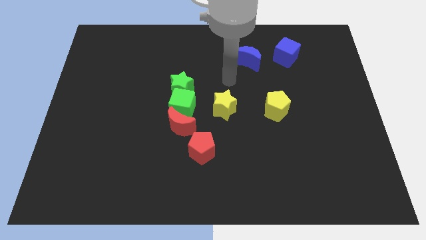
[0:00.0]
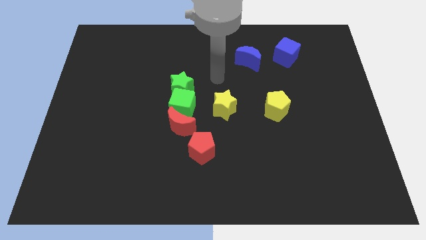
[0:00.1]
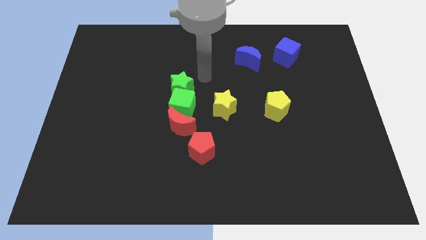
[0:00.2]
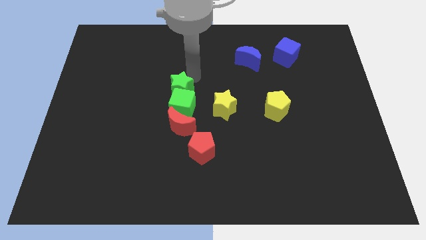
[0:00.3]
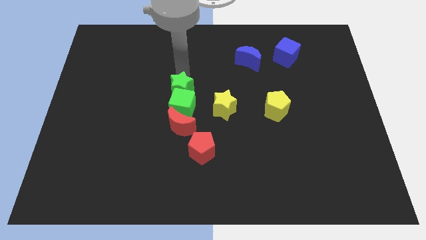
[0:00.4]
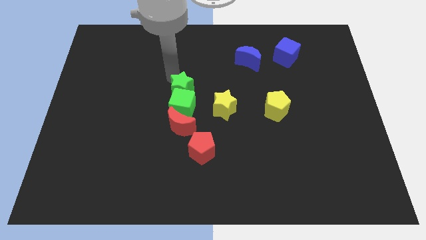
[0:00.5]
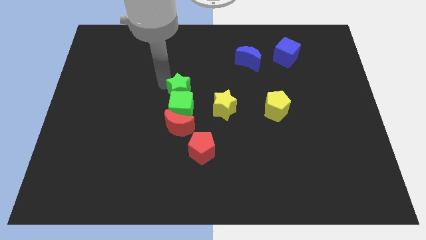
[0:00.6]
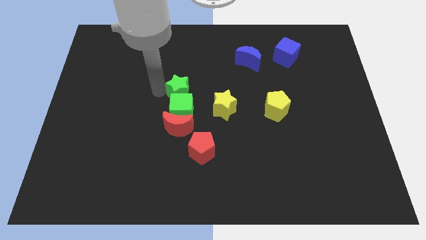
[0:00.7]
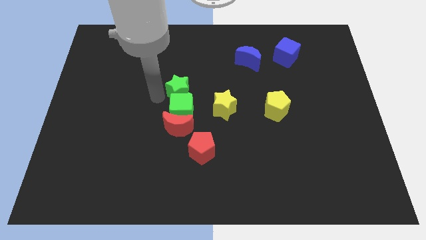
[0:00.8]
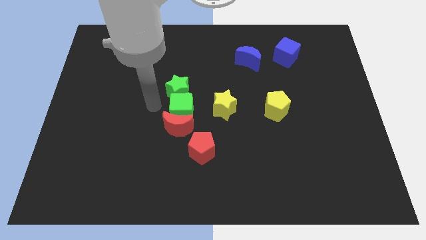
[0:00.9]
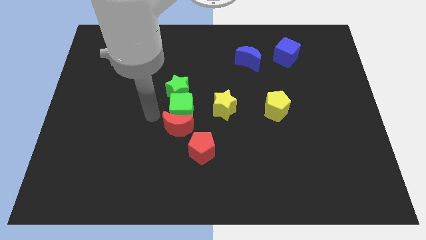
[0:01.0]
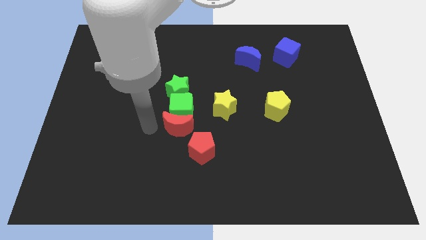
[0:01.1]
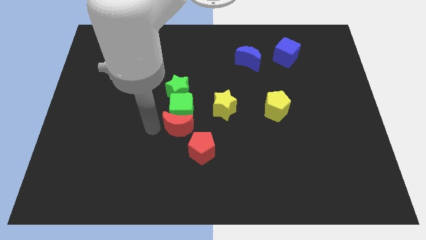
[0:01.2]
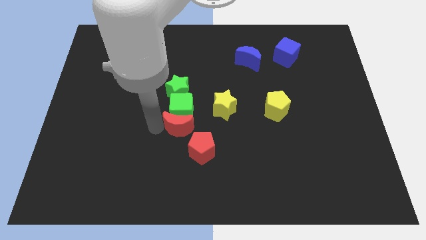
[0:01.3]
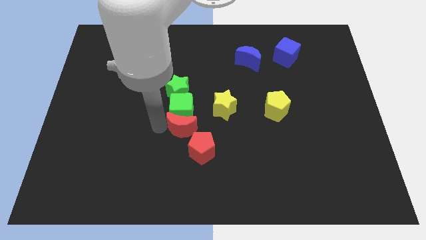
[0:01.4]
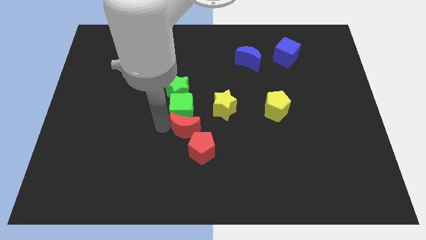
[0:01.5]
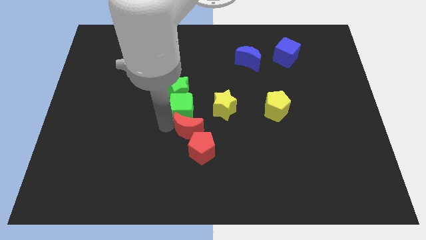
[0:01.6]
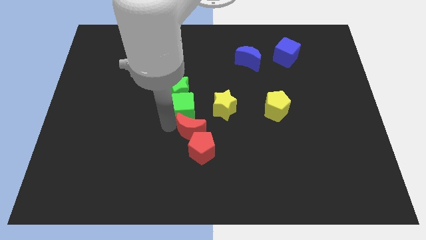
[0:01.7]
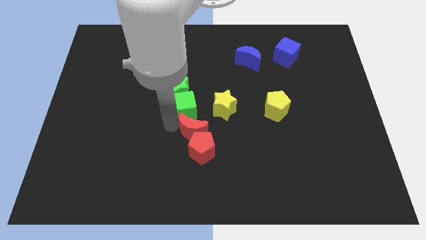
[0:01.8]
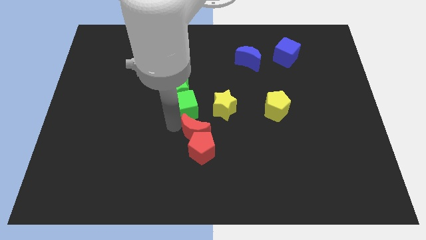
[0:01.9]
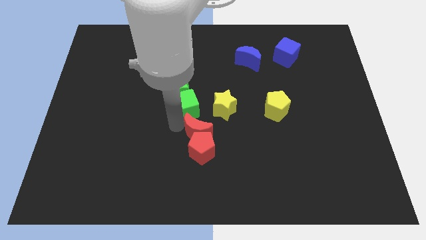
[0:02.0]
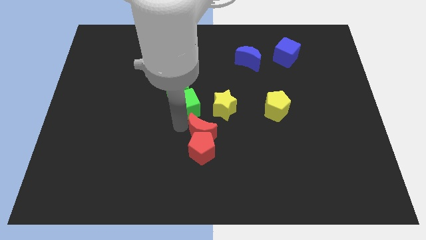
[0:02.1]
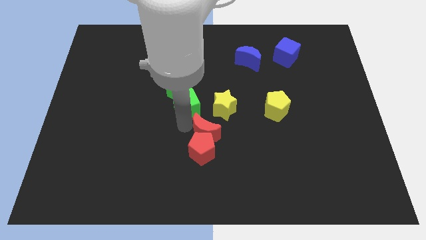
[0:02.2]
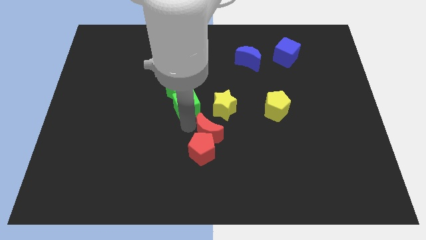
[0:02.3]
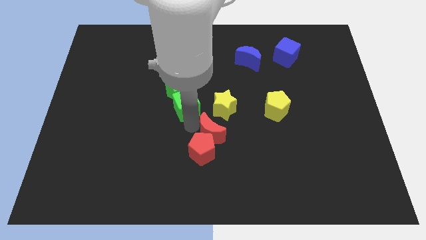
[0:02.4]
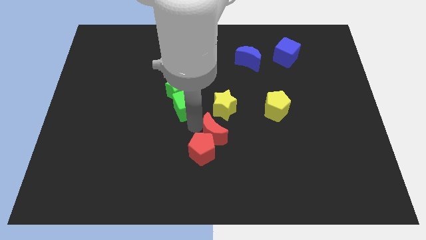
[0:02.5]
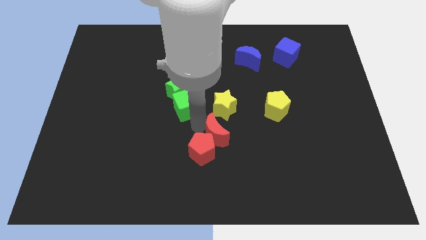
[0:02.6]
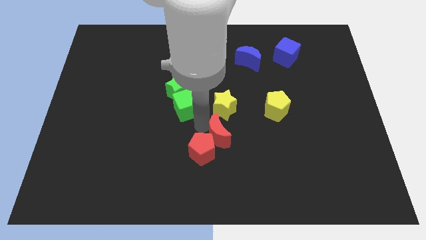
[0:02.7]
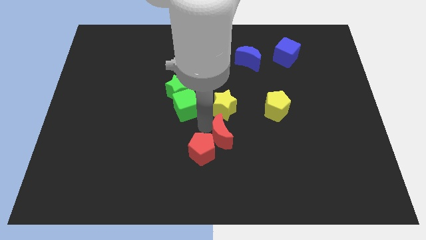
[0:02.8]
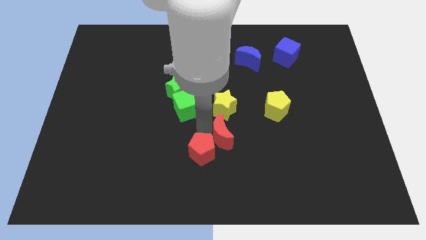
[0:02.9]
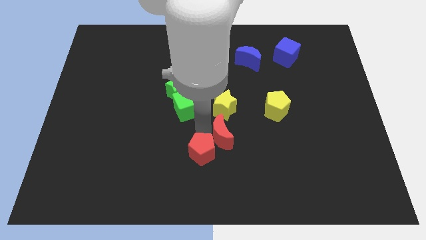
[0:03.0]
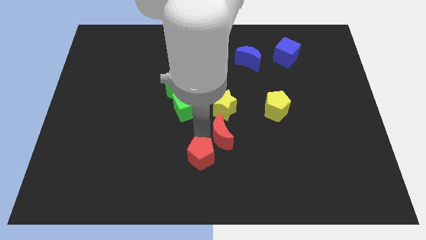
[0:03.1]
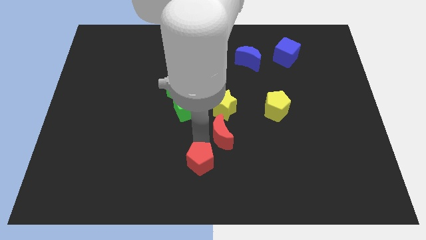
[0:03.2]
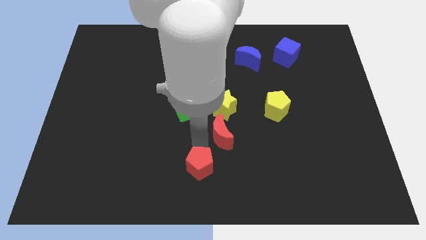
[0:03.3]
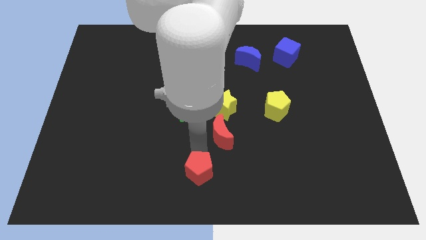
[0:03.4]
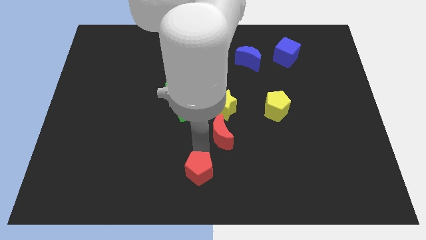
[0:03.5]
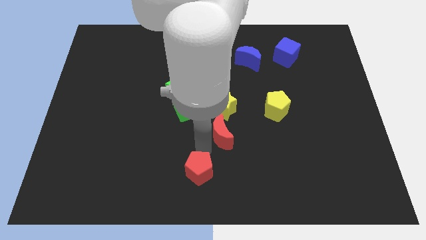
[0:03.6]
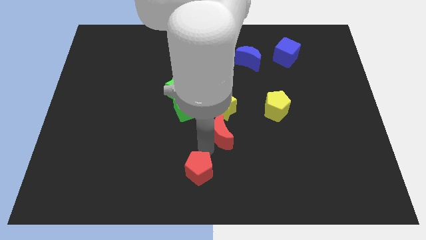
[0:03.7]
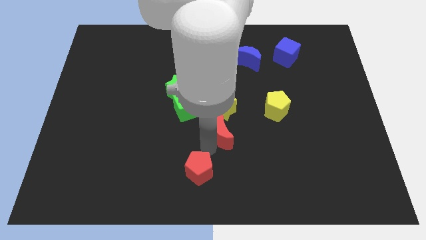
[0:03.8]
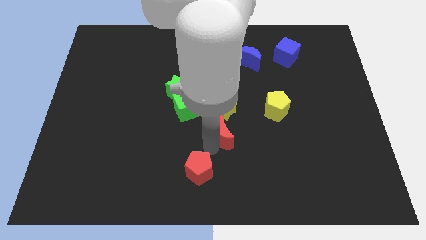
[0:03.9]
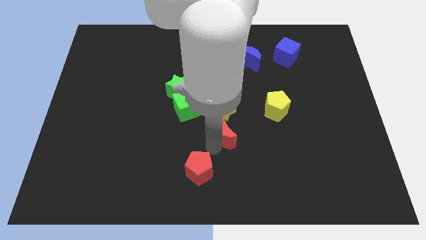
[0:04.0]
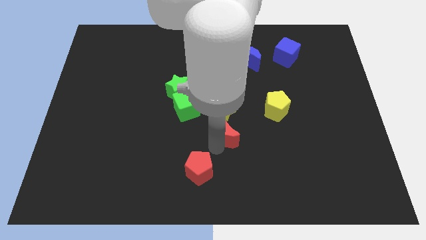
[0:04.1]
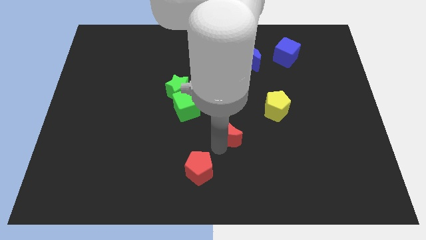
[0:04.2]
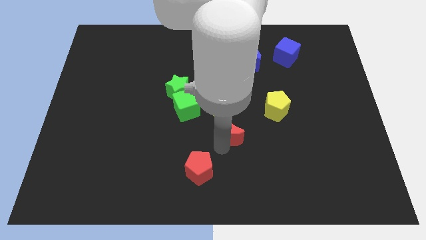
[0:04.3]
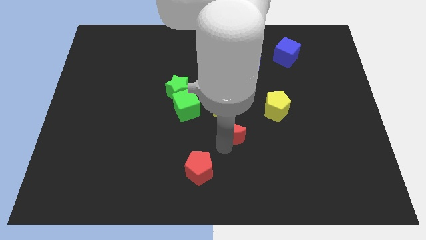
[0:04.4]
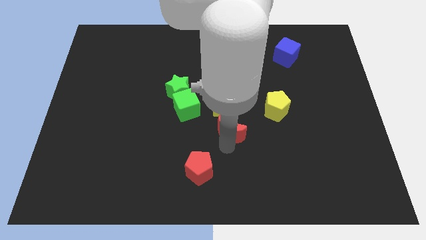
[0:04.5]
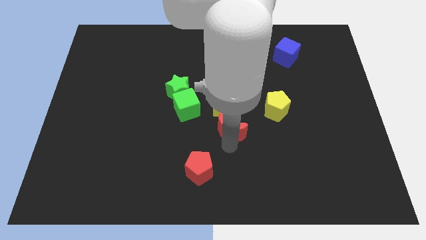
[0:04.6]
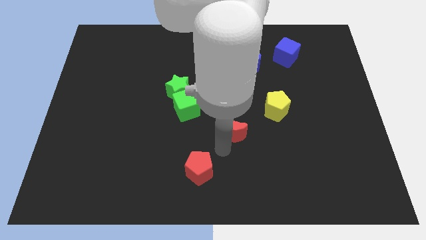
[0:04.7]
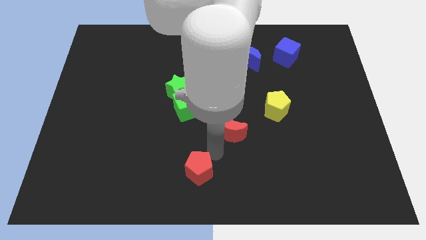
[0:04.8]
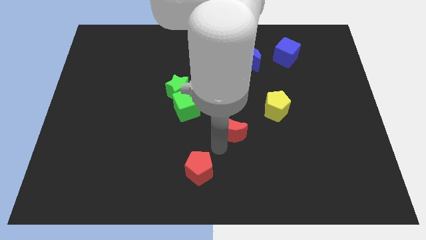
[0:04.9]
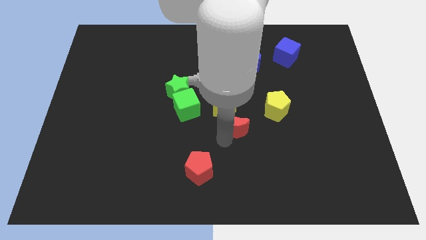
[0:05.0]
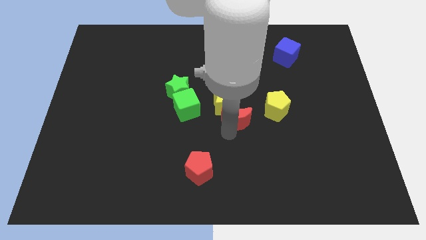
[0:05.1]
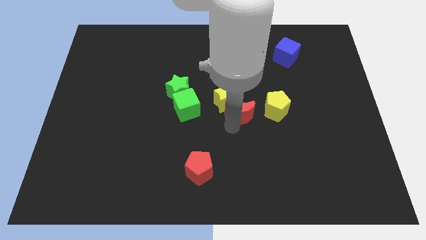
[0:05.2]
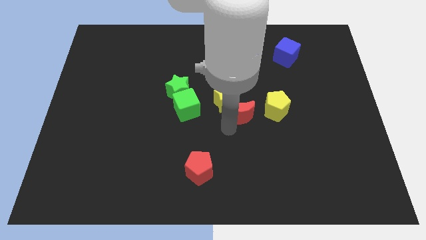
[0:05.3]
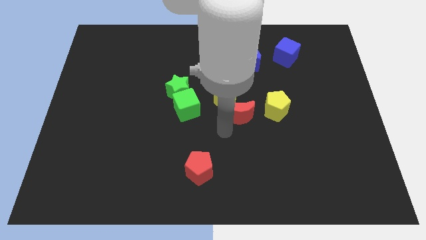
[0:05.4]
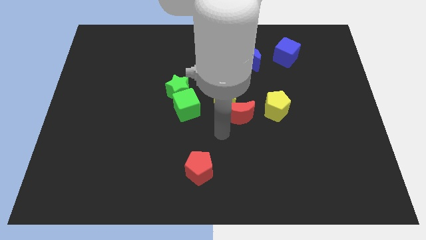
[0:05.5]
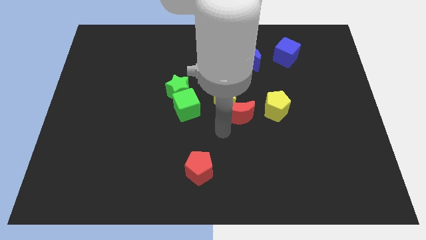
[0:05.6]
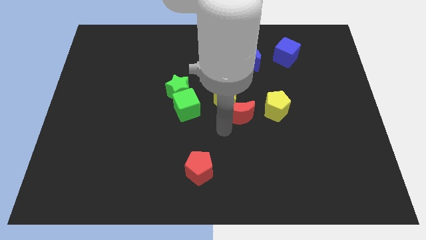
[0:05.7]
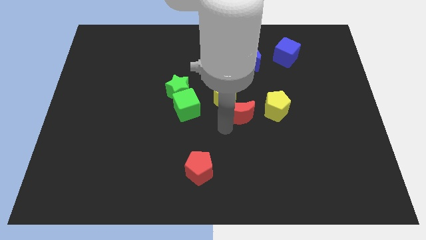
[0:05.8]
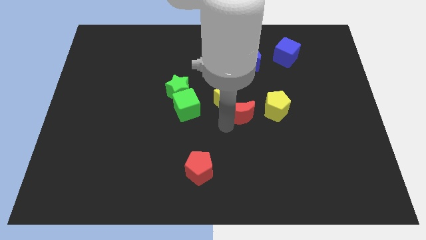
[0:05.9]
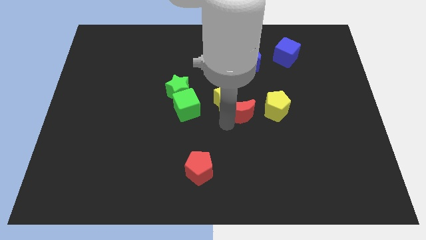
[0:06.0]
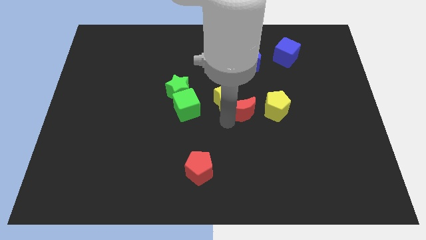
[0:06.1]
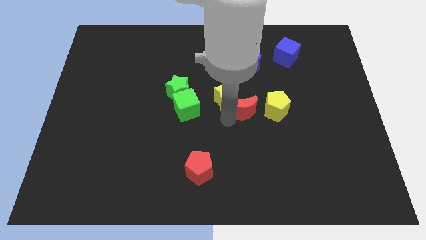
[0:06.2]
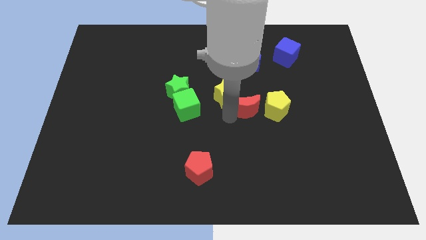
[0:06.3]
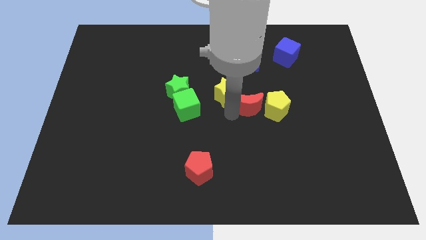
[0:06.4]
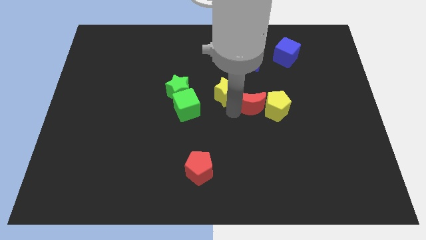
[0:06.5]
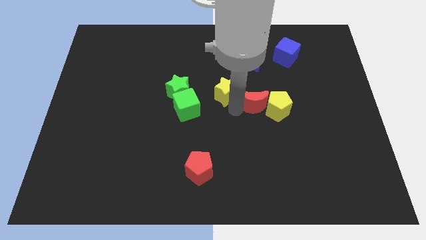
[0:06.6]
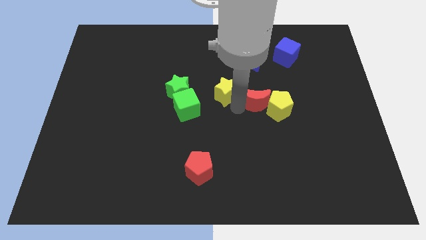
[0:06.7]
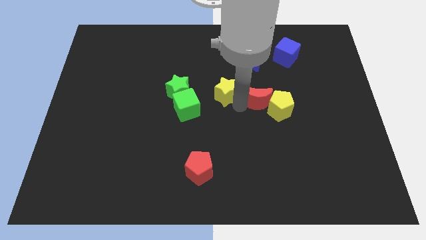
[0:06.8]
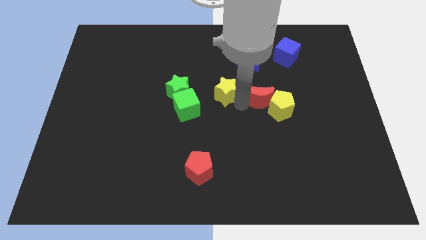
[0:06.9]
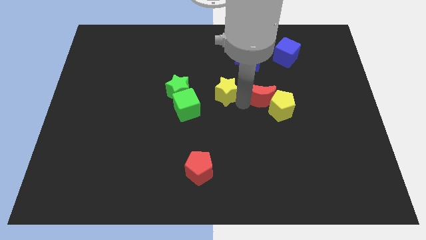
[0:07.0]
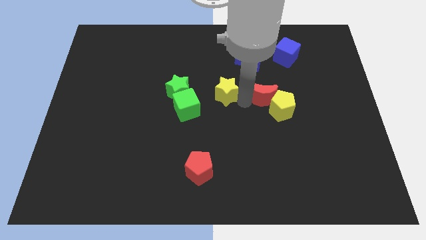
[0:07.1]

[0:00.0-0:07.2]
move the red moon to the top of the yellow pentagon

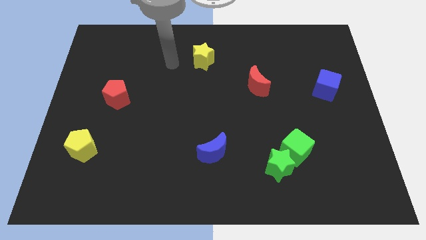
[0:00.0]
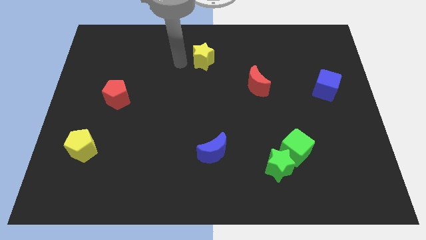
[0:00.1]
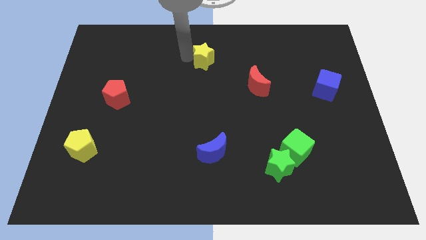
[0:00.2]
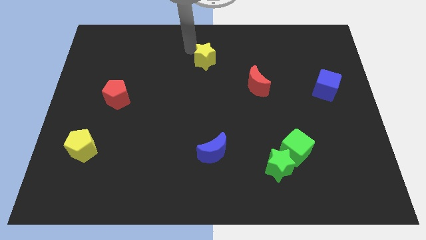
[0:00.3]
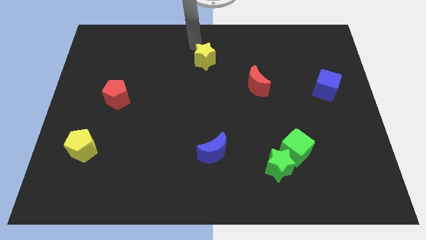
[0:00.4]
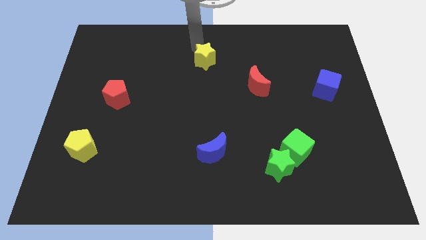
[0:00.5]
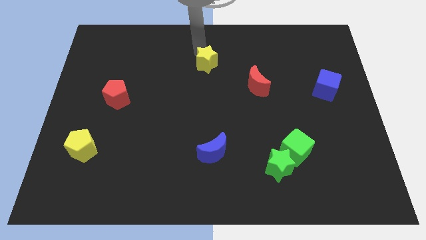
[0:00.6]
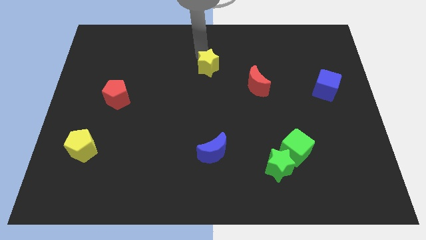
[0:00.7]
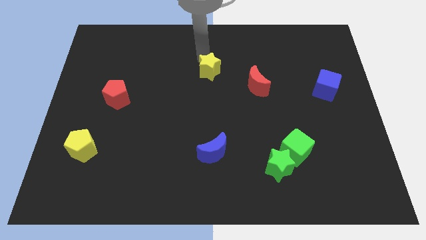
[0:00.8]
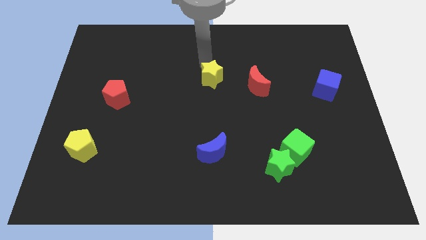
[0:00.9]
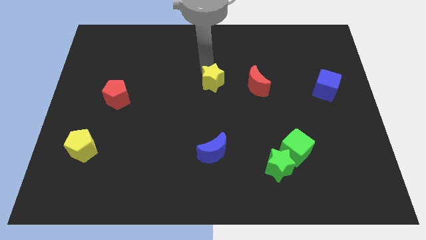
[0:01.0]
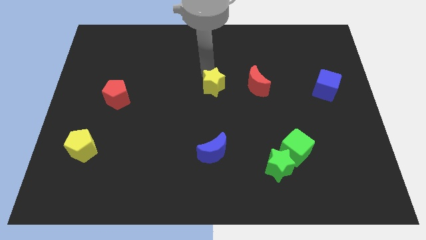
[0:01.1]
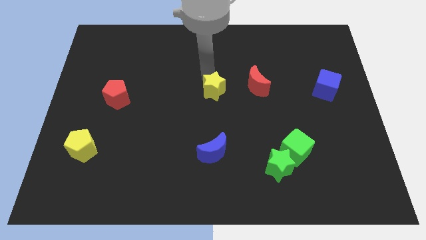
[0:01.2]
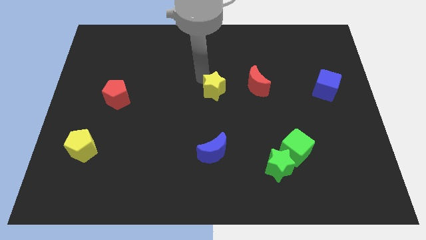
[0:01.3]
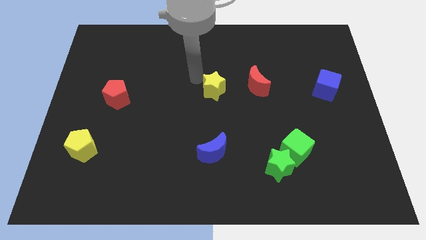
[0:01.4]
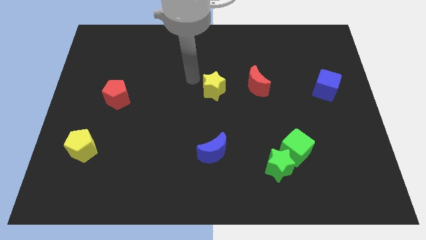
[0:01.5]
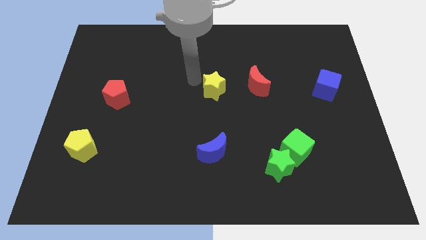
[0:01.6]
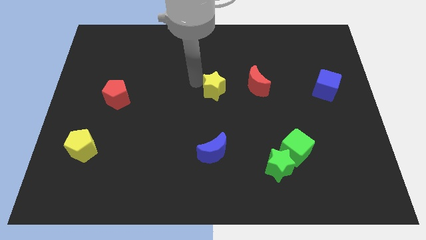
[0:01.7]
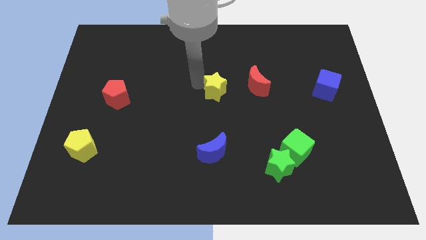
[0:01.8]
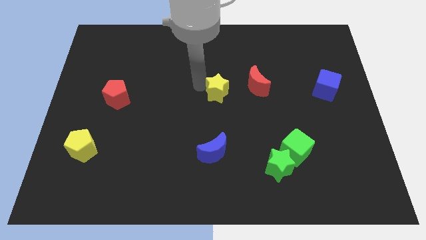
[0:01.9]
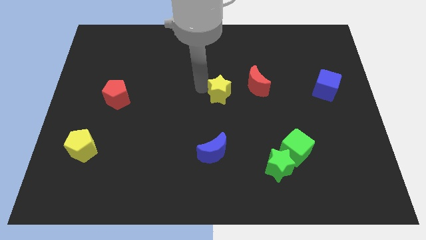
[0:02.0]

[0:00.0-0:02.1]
put the yellow star to the bottom left of the red moon
